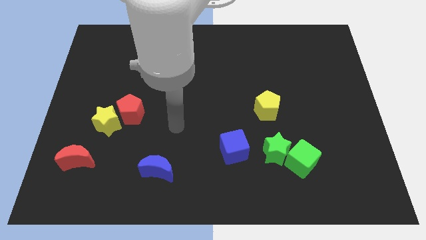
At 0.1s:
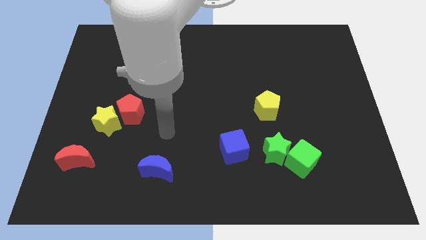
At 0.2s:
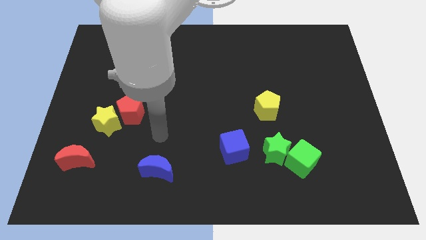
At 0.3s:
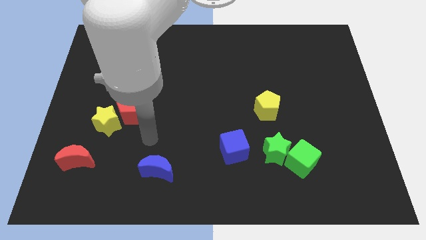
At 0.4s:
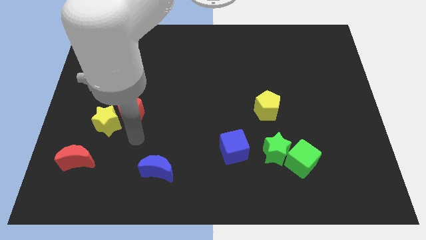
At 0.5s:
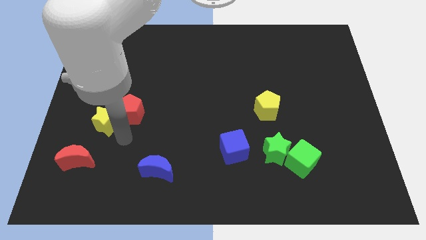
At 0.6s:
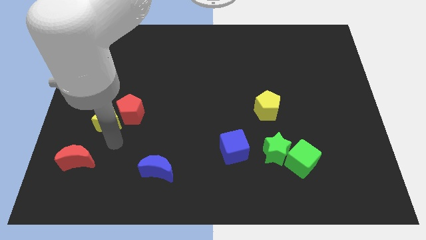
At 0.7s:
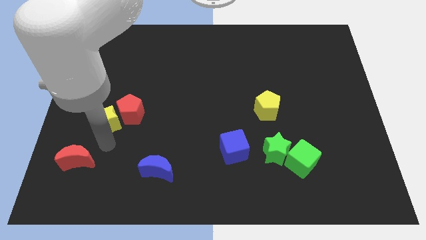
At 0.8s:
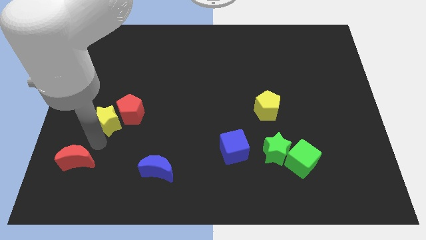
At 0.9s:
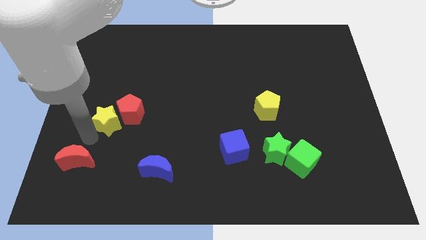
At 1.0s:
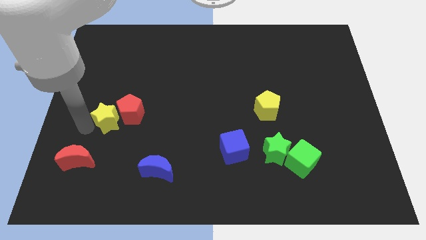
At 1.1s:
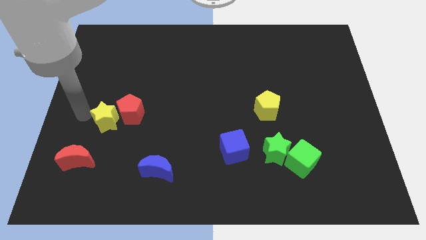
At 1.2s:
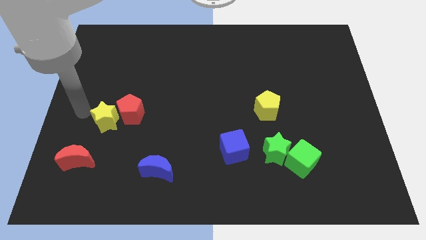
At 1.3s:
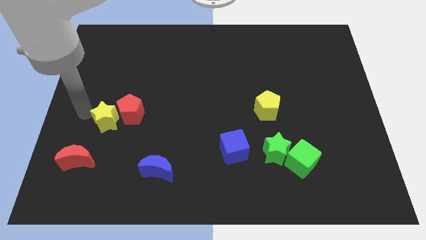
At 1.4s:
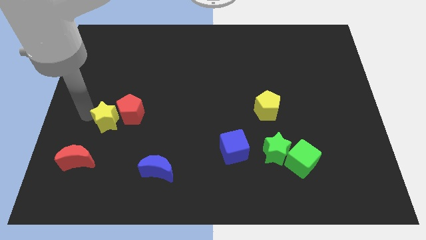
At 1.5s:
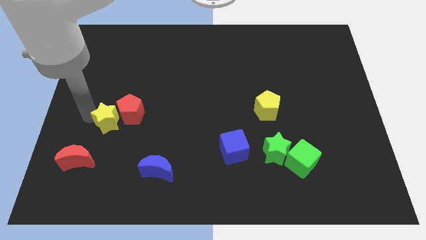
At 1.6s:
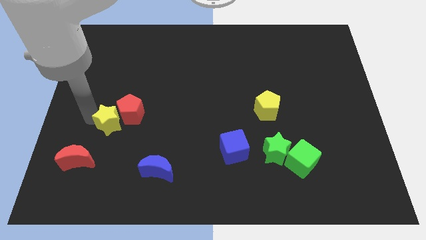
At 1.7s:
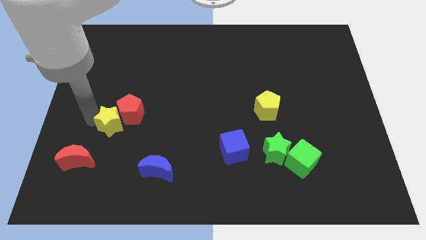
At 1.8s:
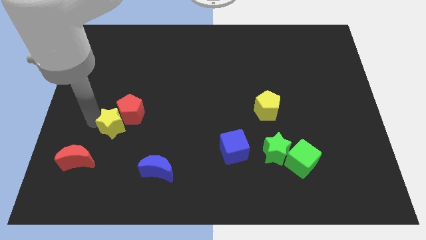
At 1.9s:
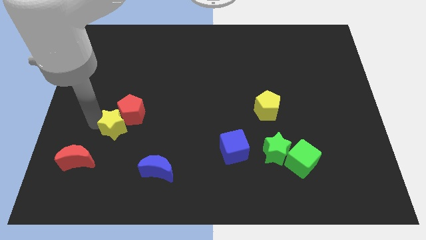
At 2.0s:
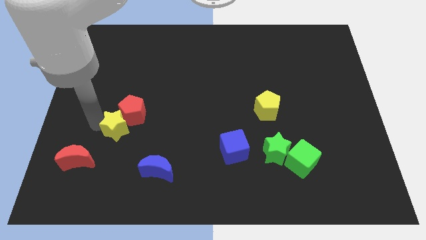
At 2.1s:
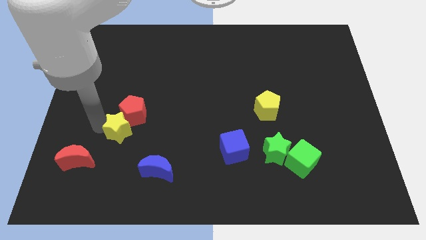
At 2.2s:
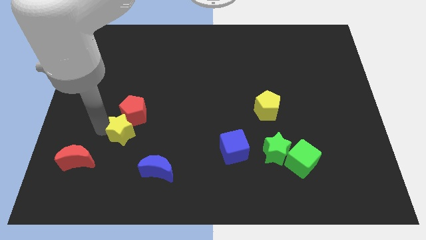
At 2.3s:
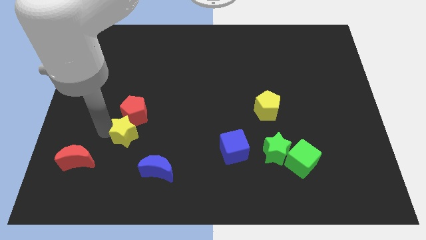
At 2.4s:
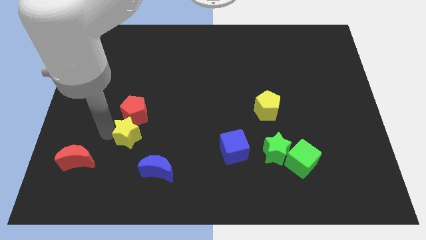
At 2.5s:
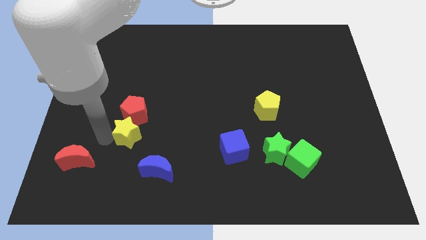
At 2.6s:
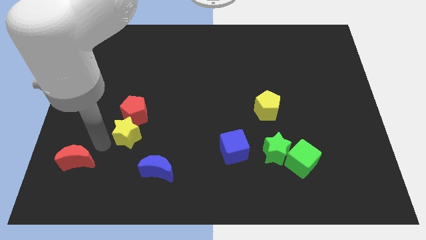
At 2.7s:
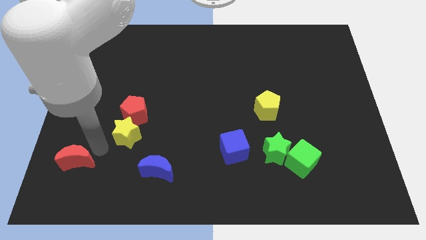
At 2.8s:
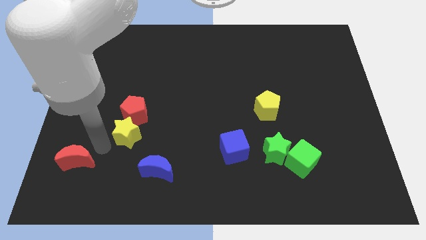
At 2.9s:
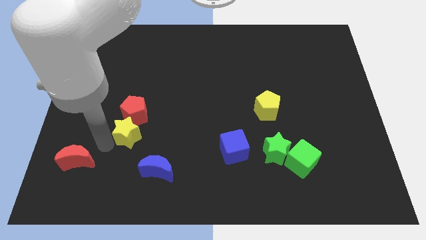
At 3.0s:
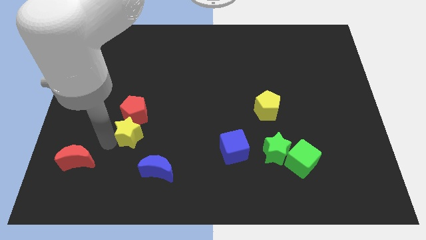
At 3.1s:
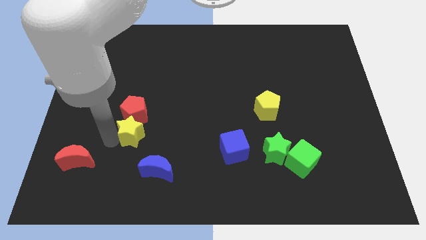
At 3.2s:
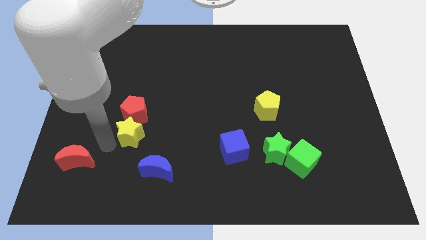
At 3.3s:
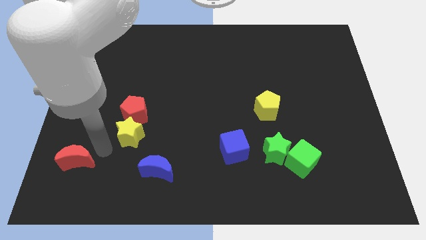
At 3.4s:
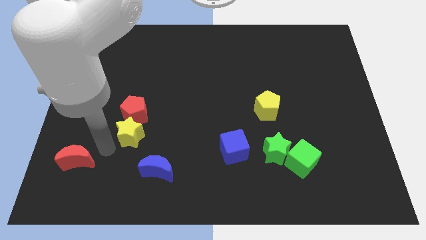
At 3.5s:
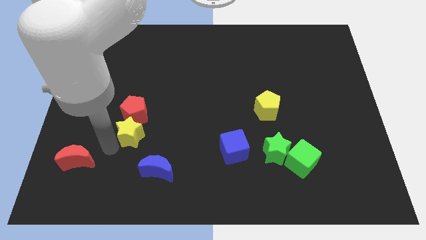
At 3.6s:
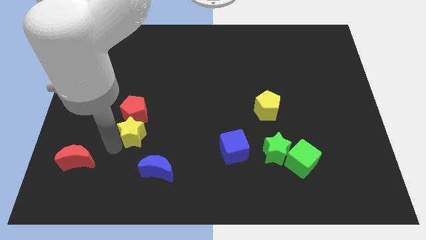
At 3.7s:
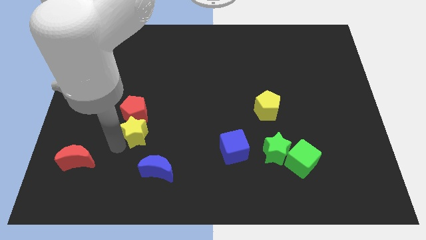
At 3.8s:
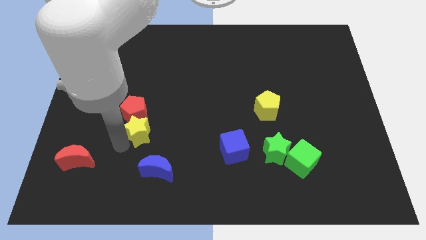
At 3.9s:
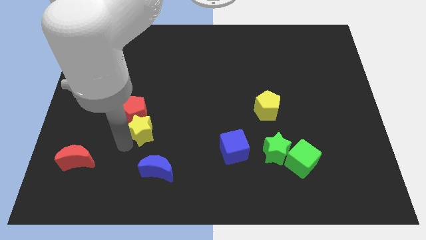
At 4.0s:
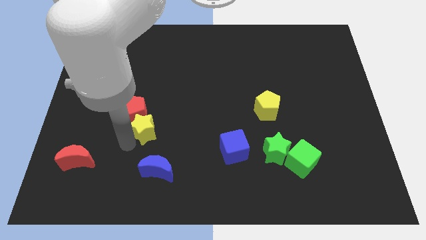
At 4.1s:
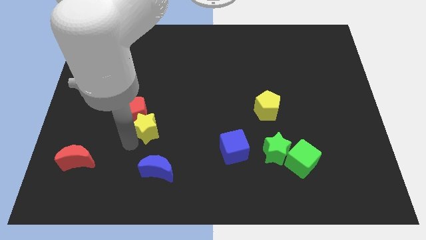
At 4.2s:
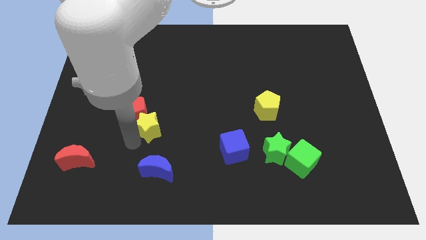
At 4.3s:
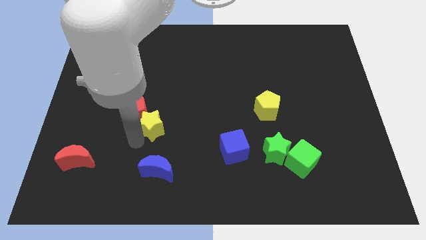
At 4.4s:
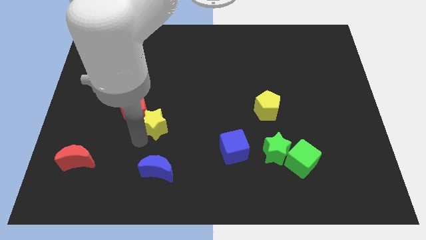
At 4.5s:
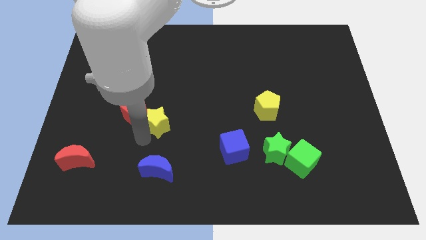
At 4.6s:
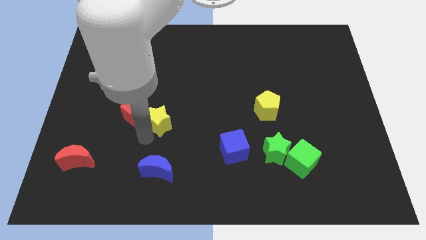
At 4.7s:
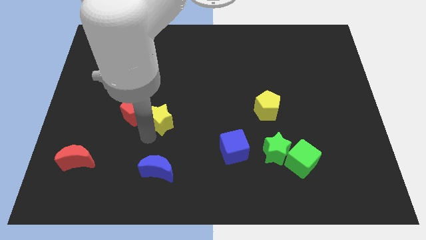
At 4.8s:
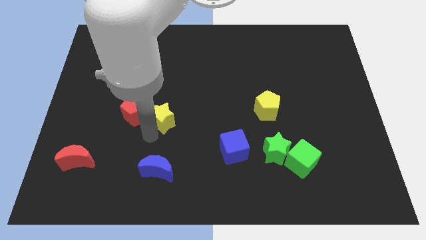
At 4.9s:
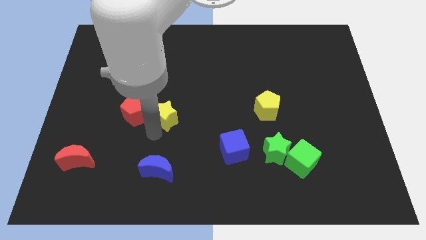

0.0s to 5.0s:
push the yellow star to the center

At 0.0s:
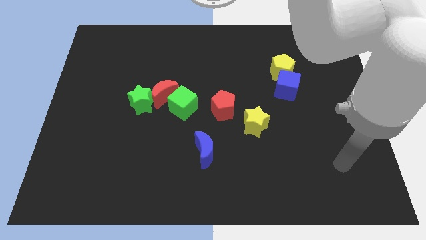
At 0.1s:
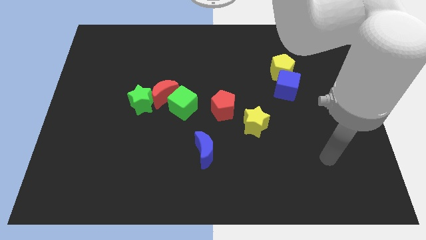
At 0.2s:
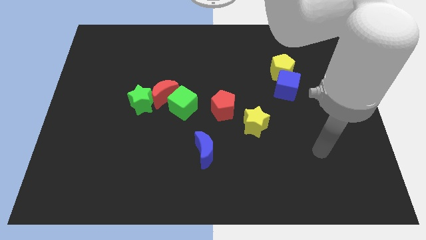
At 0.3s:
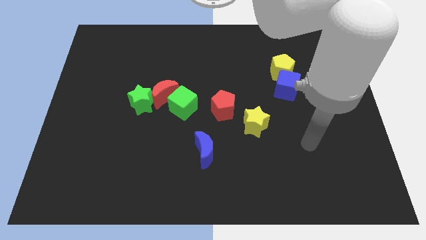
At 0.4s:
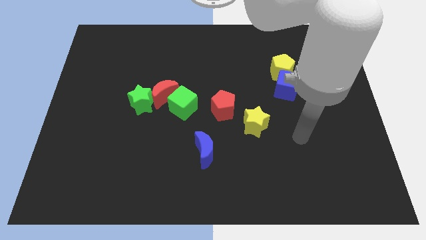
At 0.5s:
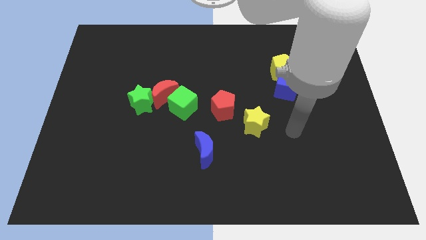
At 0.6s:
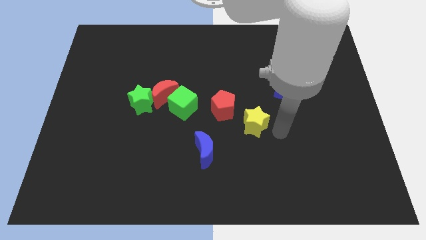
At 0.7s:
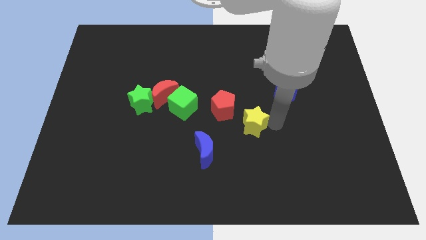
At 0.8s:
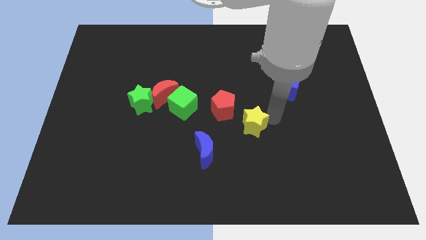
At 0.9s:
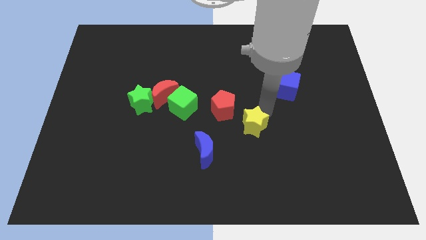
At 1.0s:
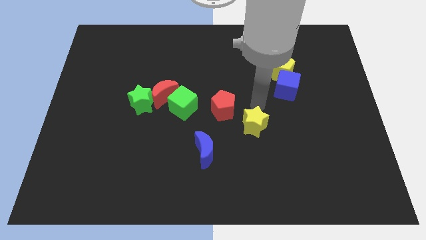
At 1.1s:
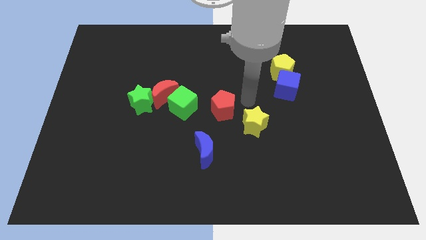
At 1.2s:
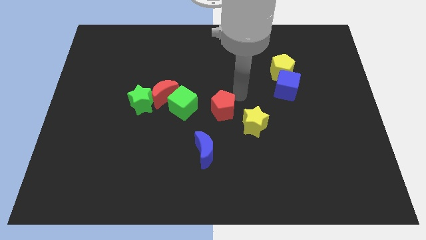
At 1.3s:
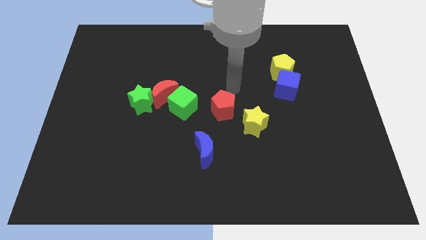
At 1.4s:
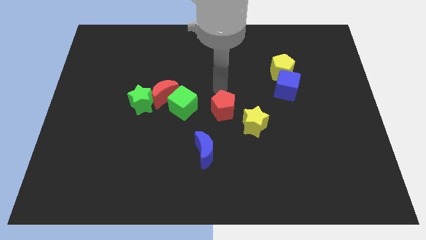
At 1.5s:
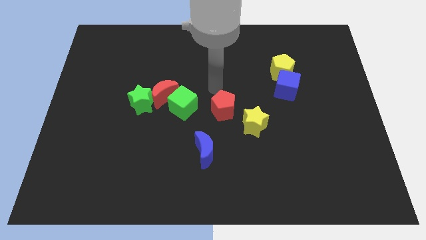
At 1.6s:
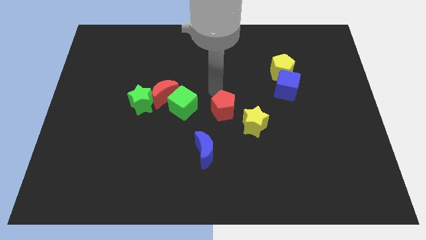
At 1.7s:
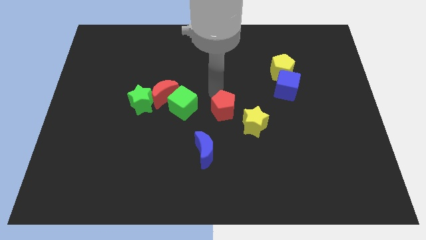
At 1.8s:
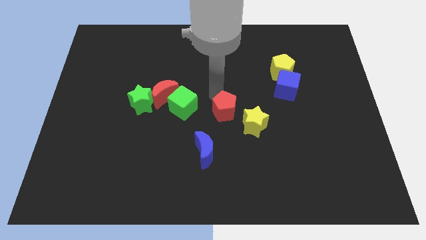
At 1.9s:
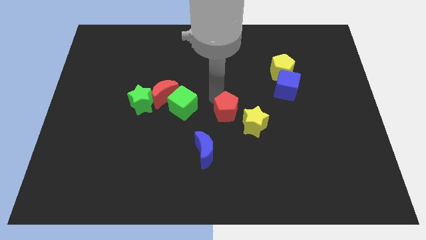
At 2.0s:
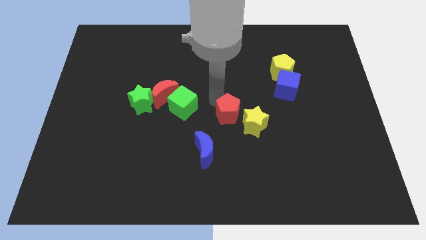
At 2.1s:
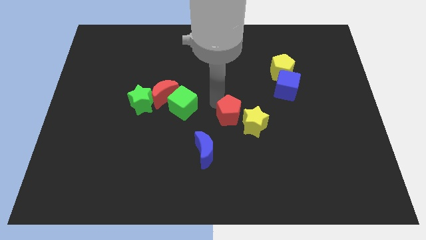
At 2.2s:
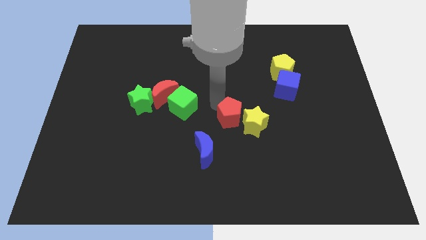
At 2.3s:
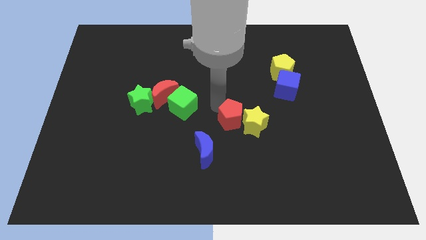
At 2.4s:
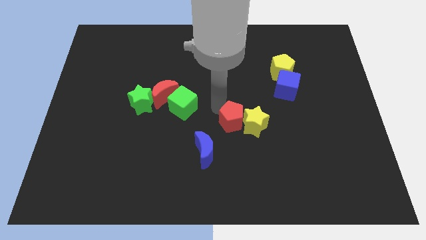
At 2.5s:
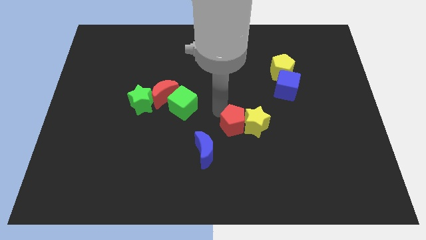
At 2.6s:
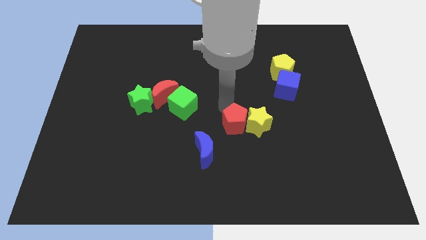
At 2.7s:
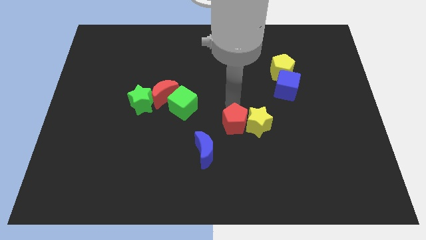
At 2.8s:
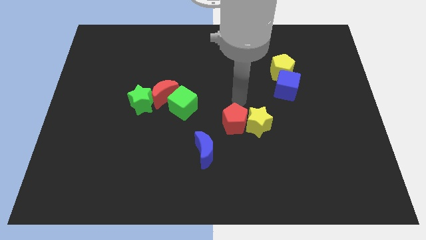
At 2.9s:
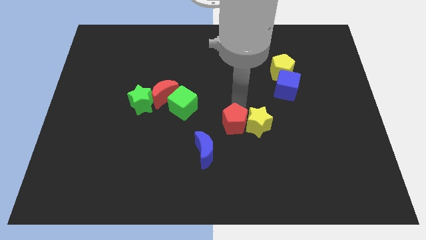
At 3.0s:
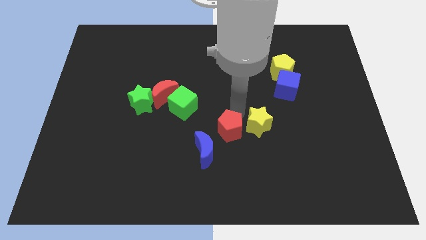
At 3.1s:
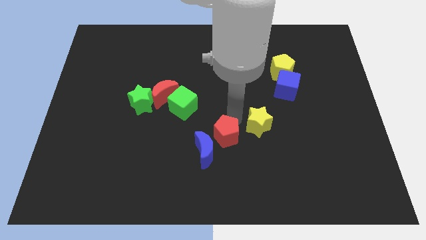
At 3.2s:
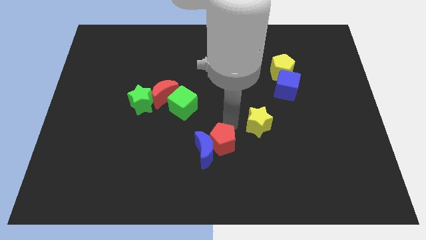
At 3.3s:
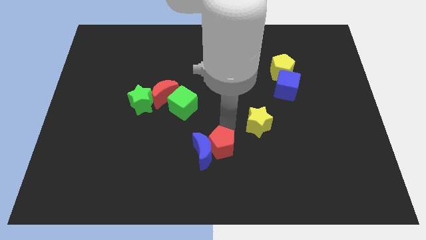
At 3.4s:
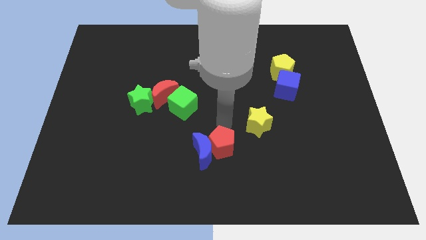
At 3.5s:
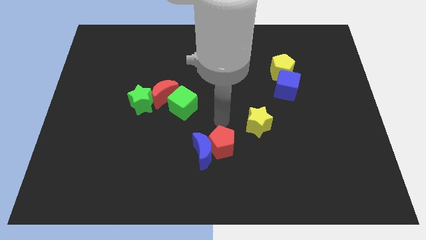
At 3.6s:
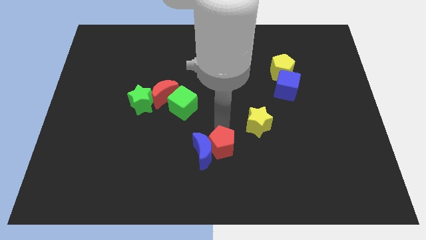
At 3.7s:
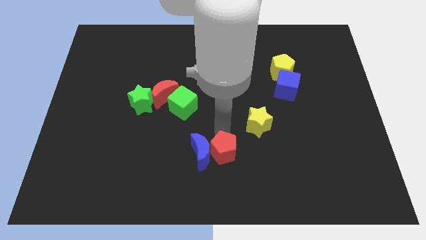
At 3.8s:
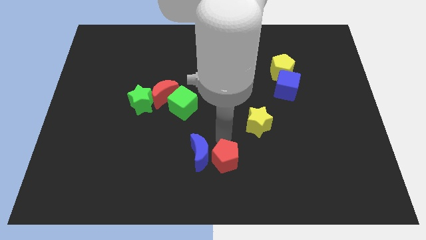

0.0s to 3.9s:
push the red pentagon to the bottom
